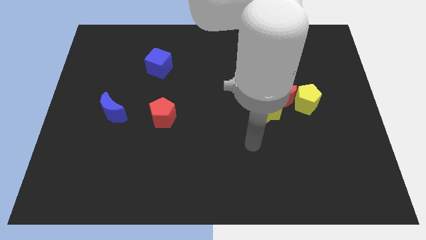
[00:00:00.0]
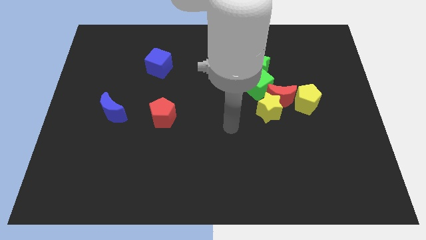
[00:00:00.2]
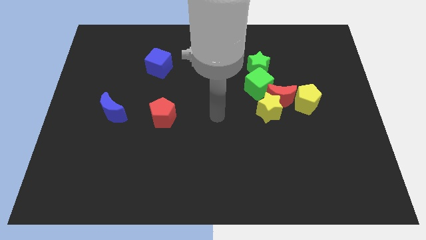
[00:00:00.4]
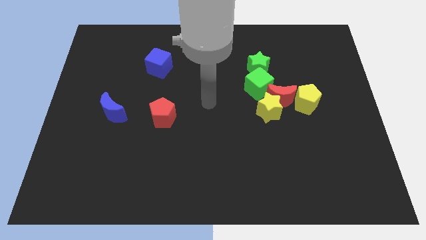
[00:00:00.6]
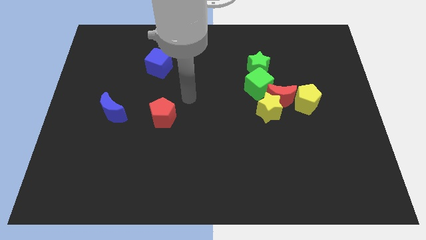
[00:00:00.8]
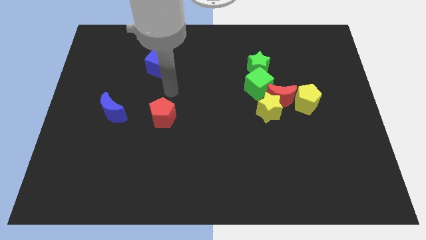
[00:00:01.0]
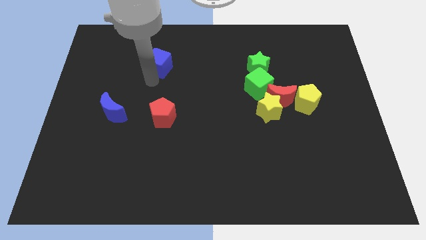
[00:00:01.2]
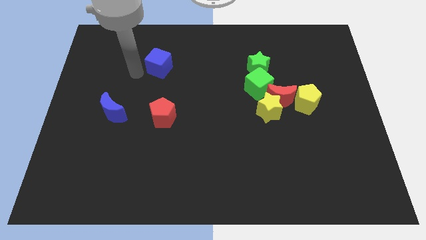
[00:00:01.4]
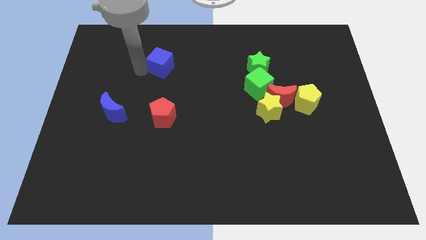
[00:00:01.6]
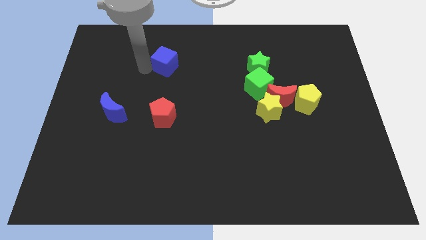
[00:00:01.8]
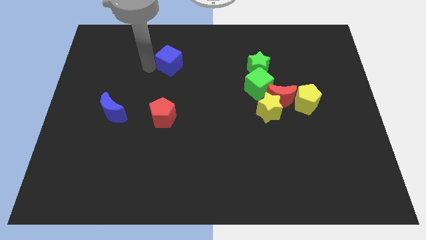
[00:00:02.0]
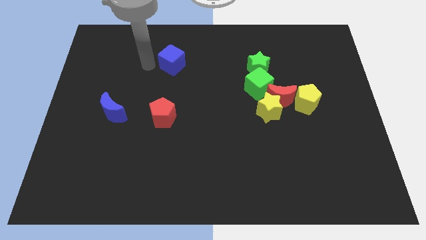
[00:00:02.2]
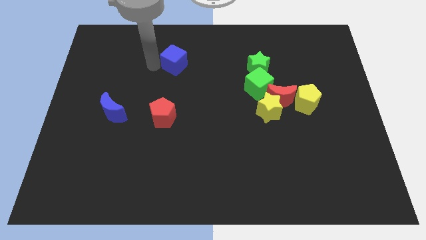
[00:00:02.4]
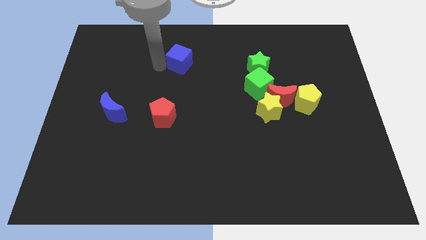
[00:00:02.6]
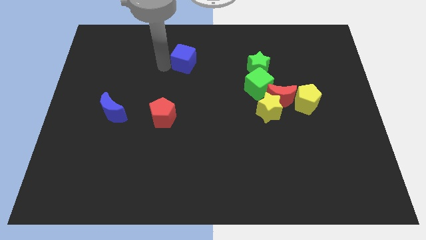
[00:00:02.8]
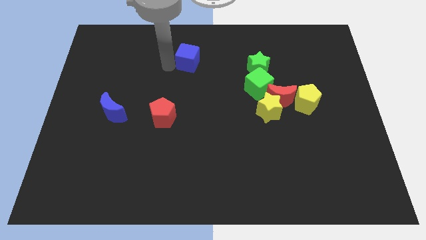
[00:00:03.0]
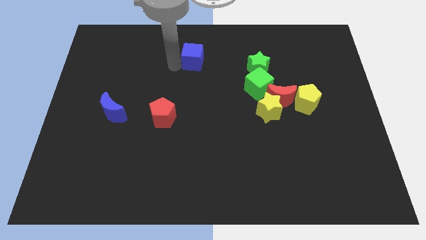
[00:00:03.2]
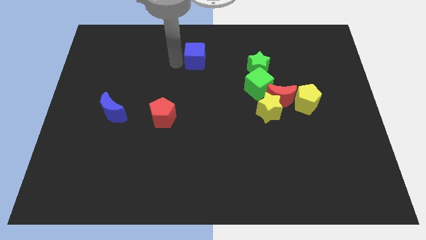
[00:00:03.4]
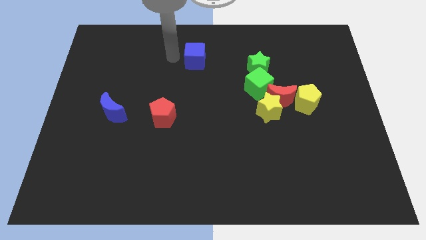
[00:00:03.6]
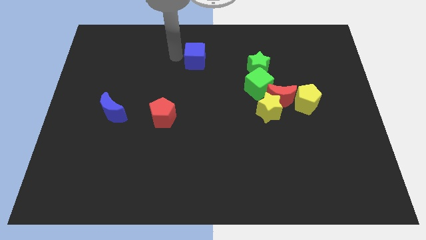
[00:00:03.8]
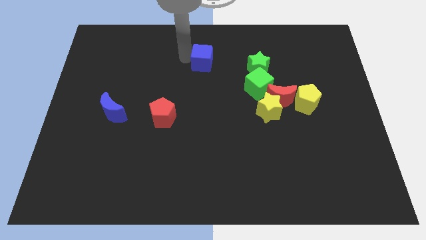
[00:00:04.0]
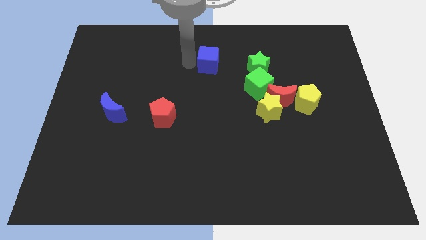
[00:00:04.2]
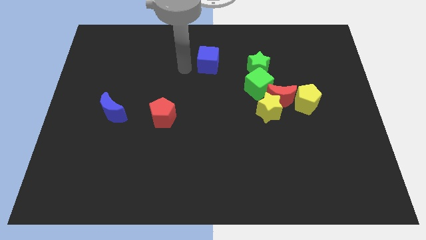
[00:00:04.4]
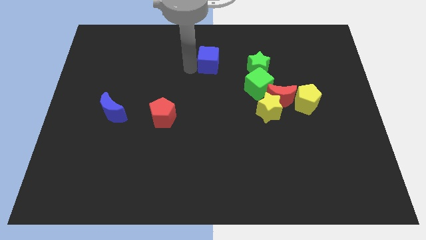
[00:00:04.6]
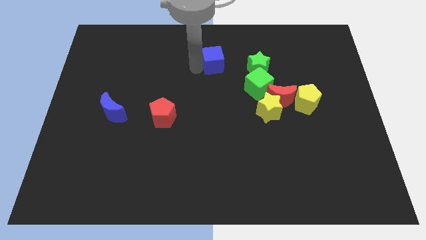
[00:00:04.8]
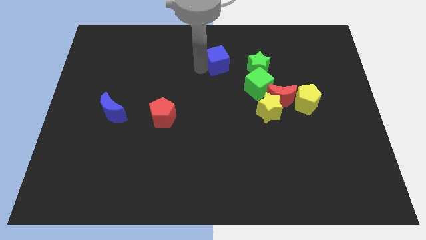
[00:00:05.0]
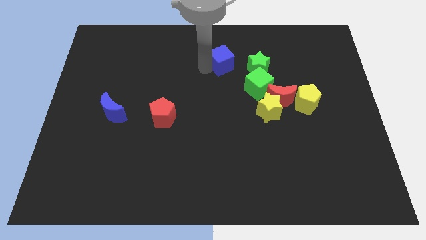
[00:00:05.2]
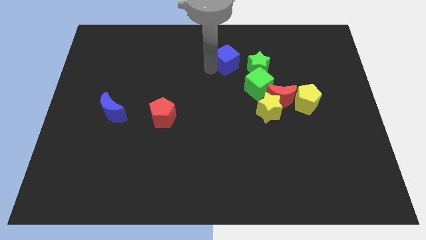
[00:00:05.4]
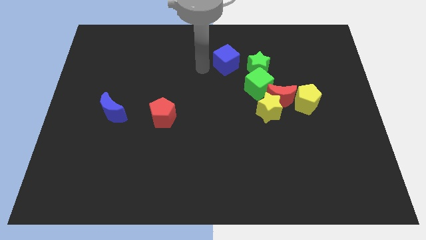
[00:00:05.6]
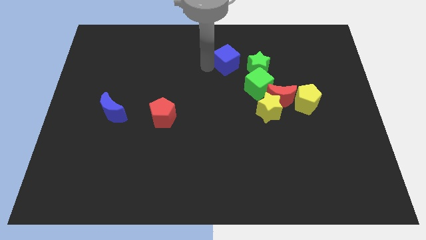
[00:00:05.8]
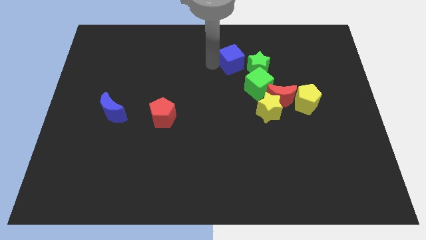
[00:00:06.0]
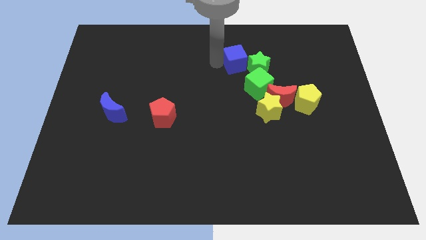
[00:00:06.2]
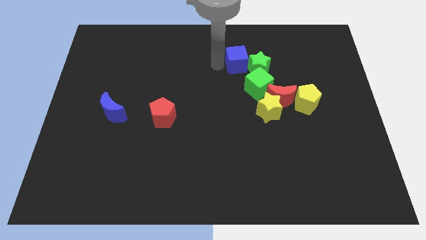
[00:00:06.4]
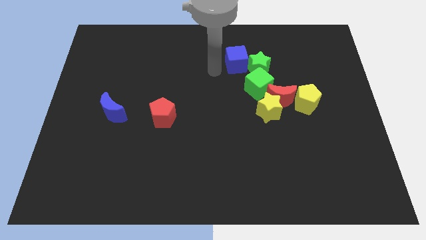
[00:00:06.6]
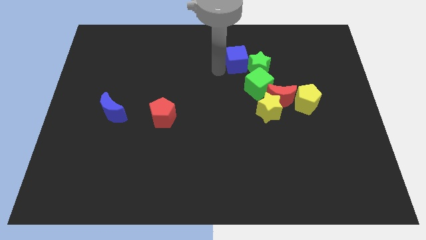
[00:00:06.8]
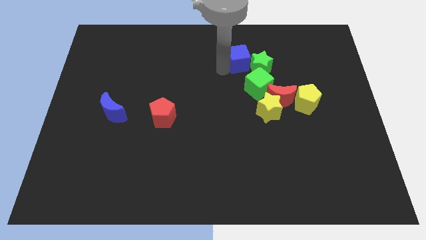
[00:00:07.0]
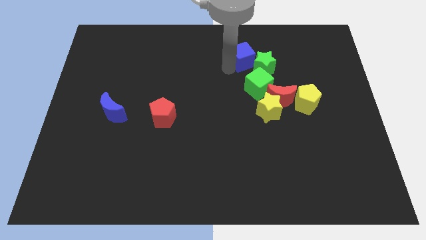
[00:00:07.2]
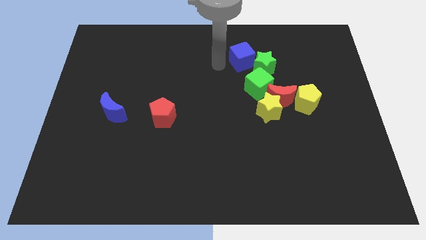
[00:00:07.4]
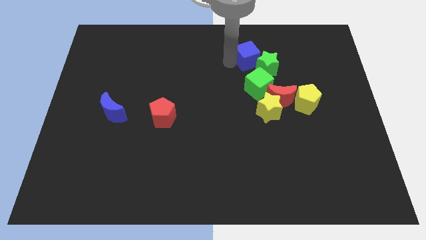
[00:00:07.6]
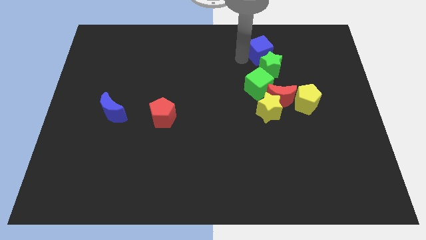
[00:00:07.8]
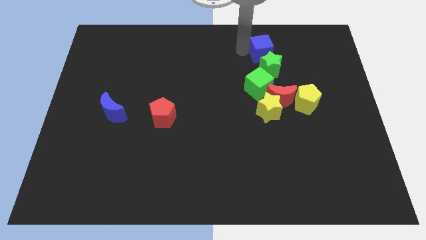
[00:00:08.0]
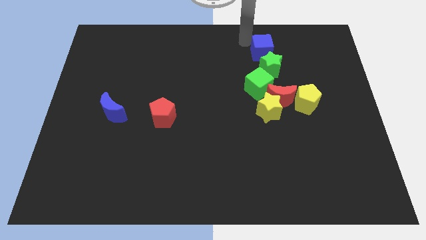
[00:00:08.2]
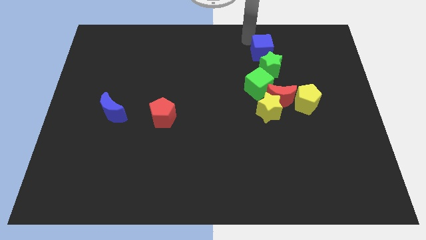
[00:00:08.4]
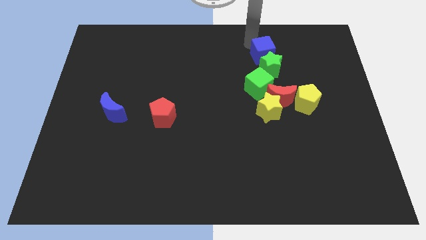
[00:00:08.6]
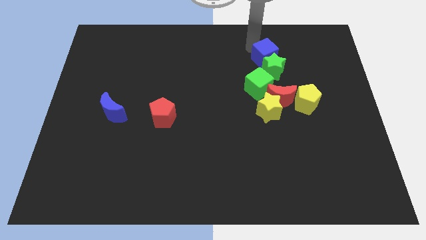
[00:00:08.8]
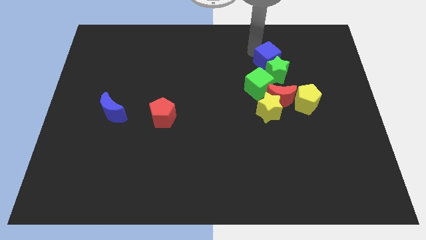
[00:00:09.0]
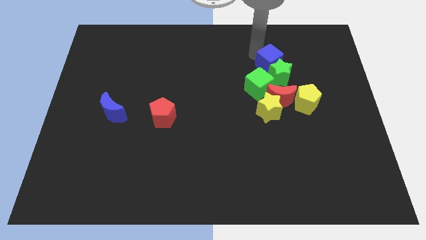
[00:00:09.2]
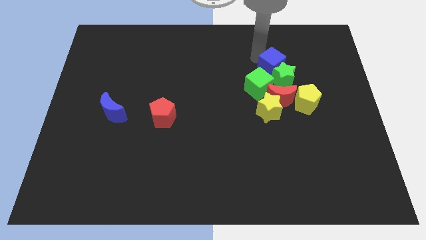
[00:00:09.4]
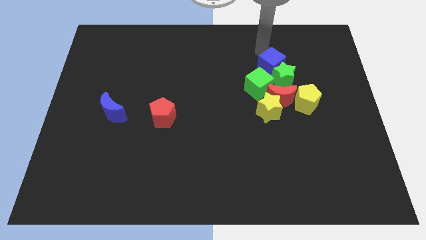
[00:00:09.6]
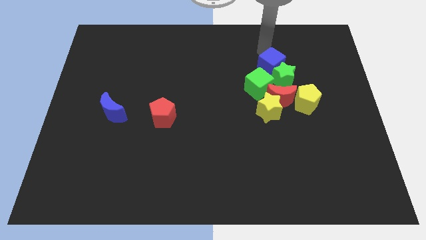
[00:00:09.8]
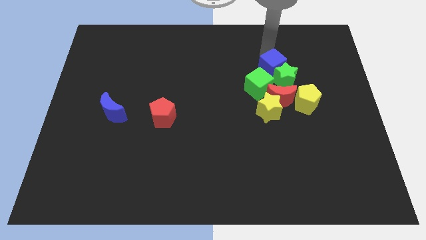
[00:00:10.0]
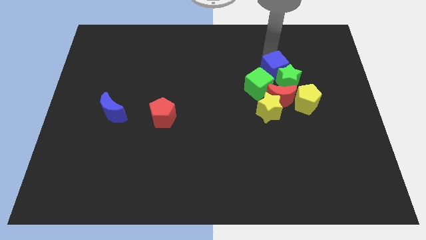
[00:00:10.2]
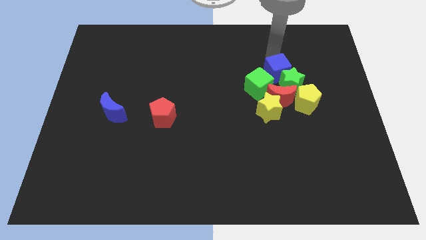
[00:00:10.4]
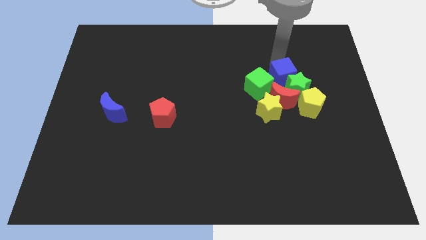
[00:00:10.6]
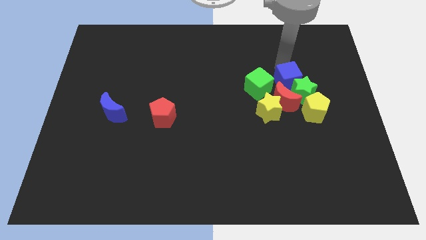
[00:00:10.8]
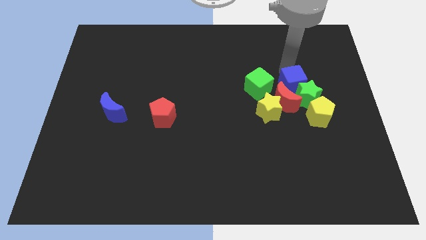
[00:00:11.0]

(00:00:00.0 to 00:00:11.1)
slide the blue cube towards the red moon
